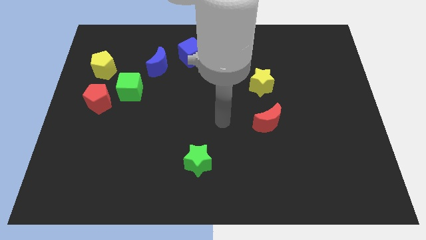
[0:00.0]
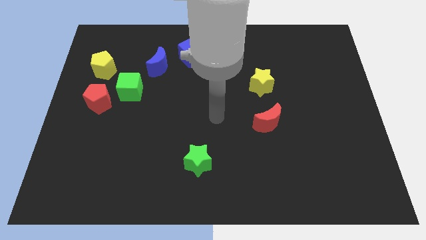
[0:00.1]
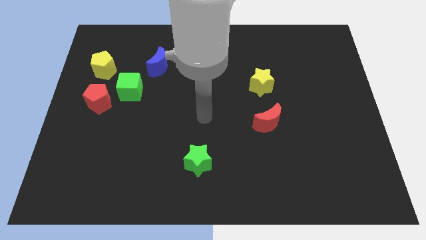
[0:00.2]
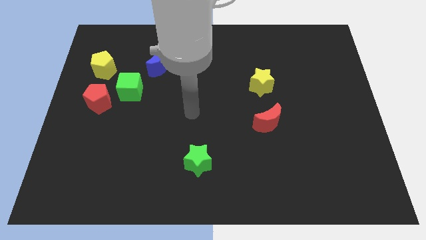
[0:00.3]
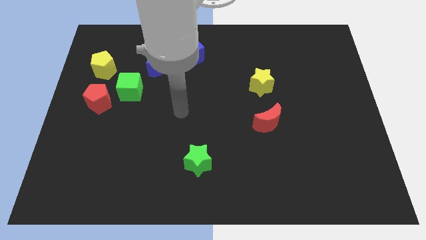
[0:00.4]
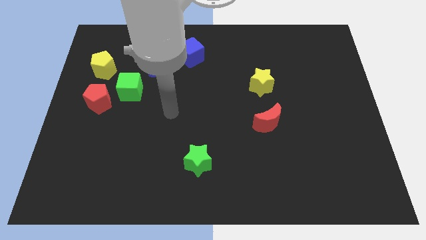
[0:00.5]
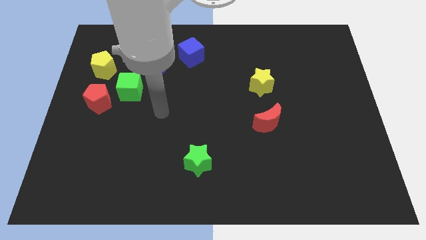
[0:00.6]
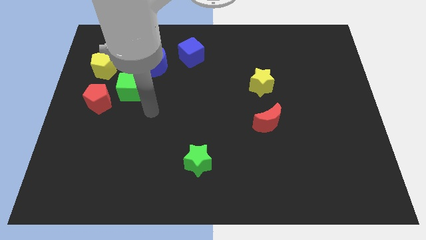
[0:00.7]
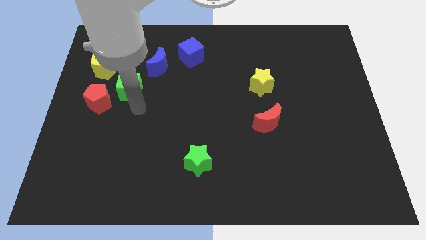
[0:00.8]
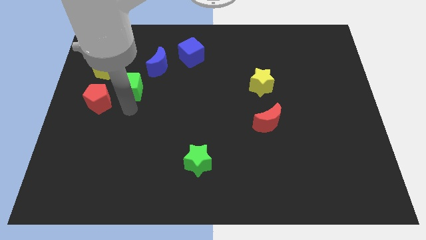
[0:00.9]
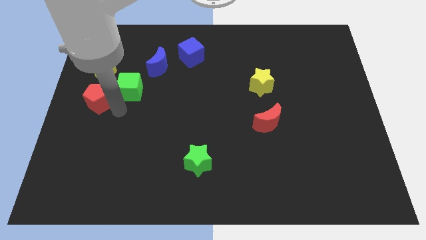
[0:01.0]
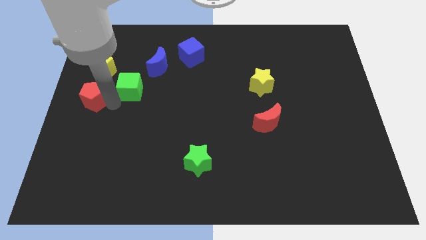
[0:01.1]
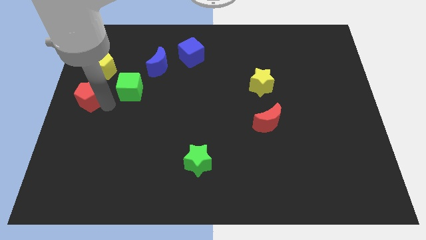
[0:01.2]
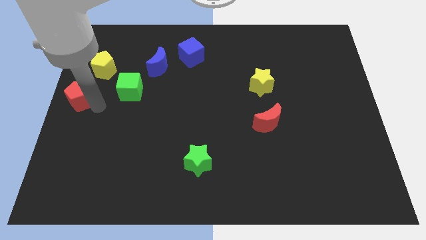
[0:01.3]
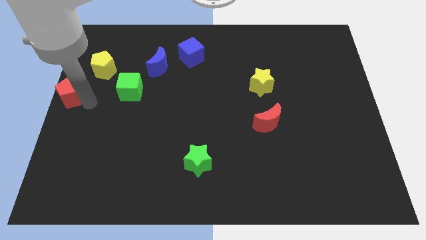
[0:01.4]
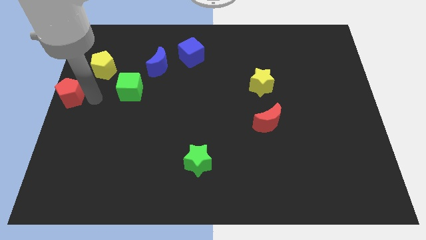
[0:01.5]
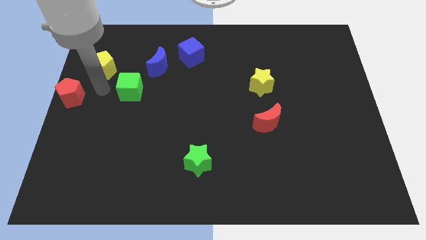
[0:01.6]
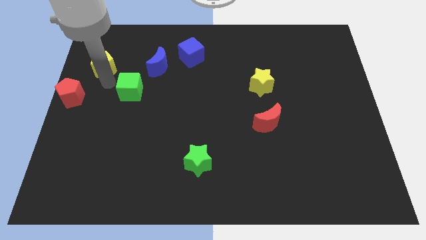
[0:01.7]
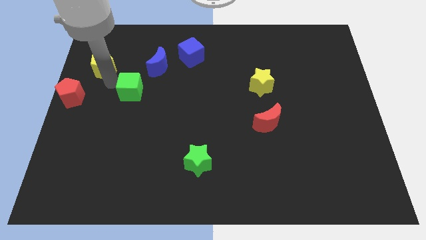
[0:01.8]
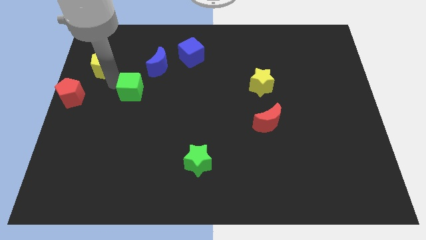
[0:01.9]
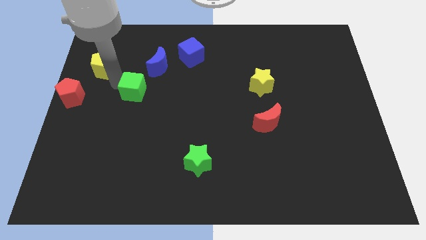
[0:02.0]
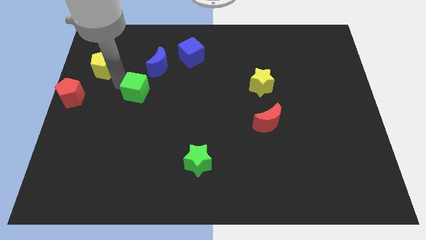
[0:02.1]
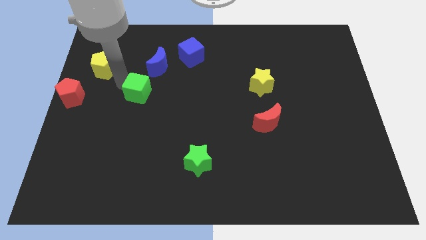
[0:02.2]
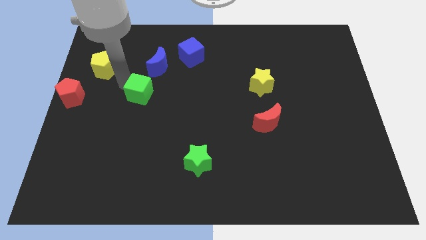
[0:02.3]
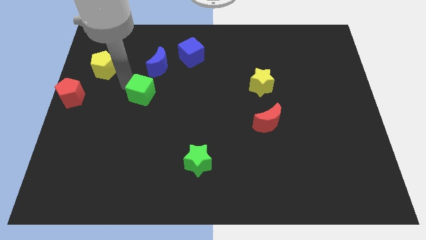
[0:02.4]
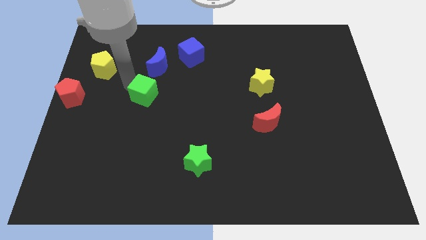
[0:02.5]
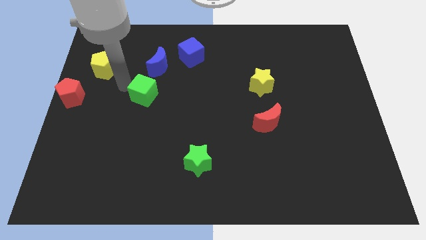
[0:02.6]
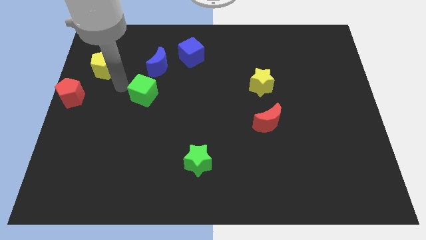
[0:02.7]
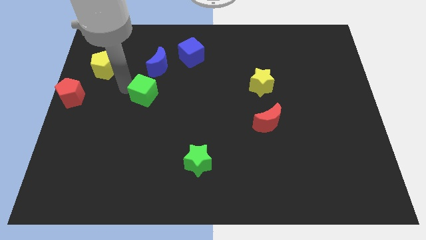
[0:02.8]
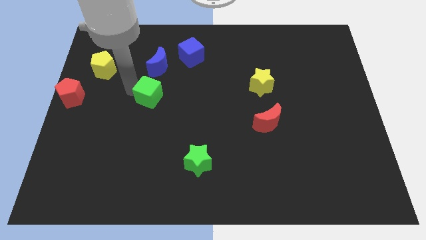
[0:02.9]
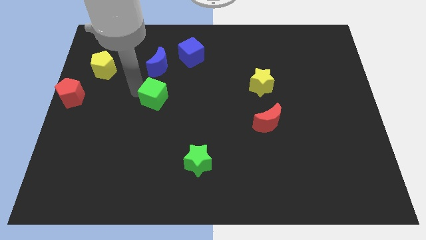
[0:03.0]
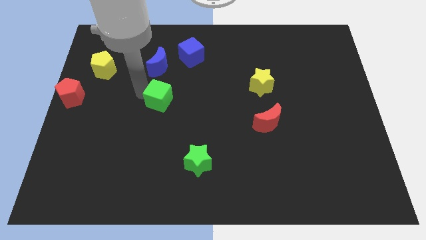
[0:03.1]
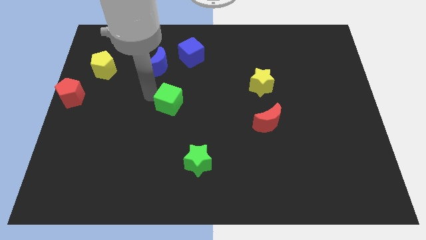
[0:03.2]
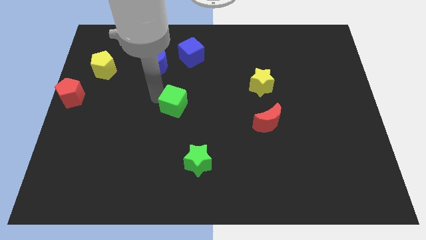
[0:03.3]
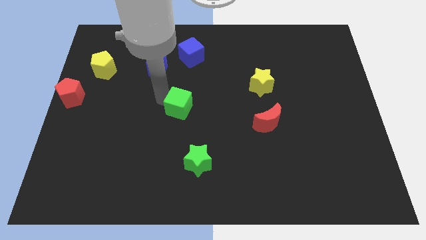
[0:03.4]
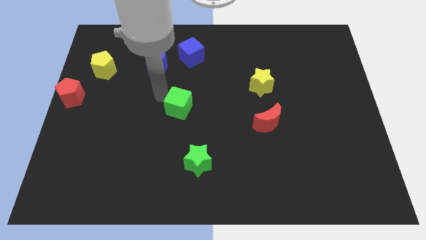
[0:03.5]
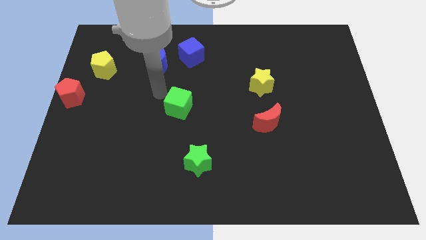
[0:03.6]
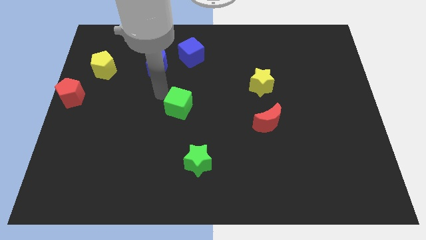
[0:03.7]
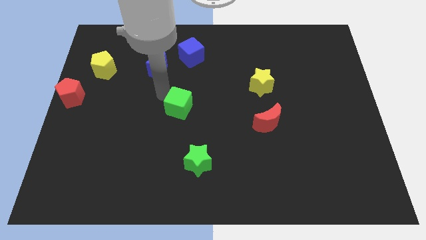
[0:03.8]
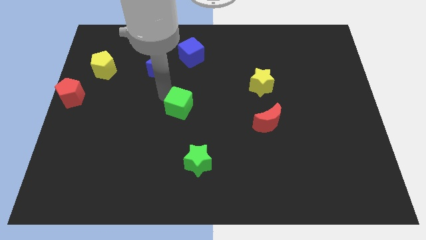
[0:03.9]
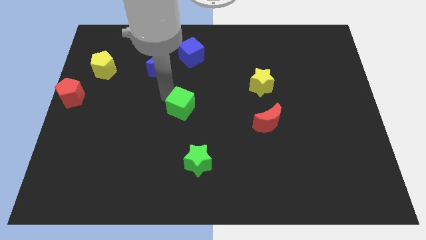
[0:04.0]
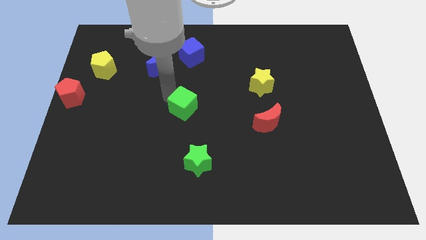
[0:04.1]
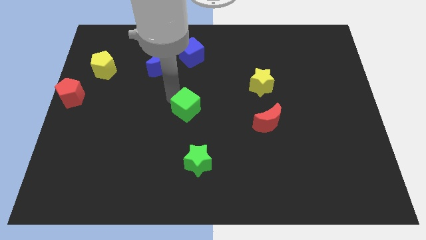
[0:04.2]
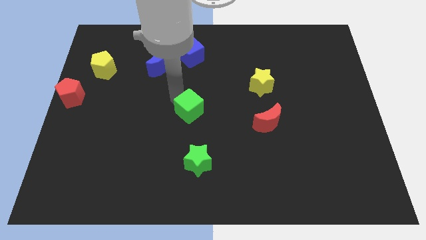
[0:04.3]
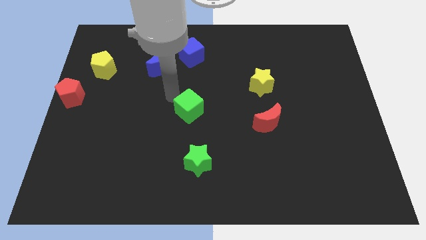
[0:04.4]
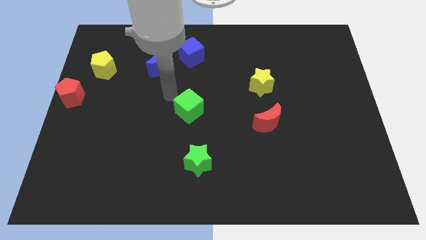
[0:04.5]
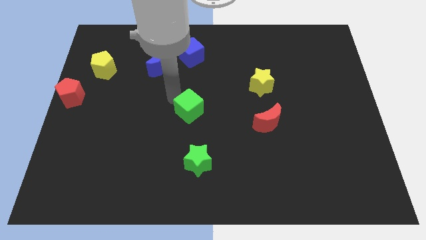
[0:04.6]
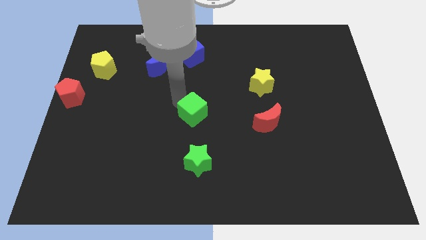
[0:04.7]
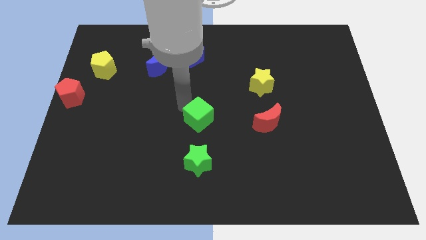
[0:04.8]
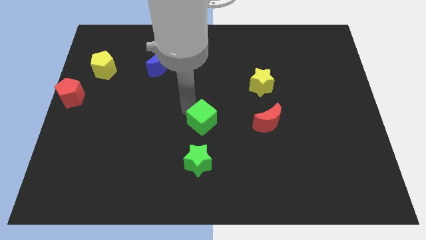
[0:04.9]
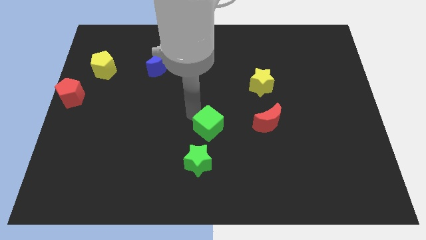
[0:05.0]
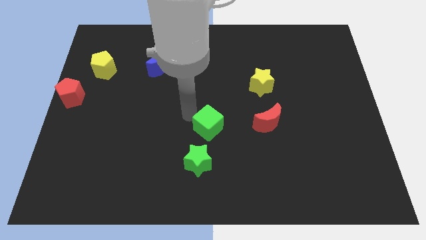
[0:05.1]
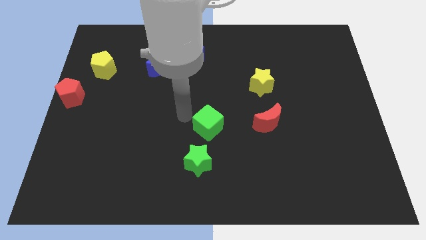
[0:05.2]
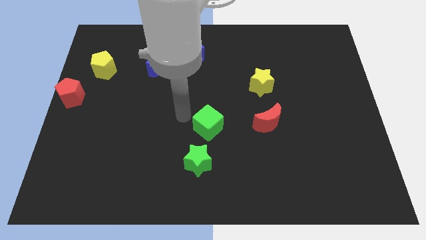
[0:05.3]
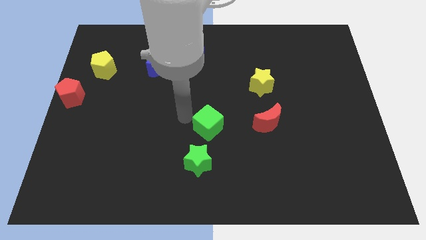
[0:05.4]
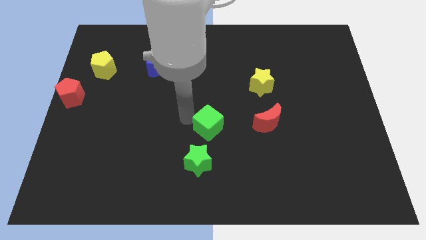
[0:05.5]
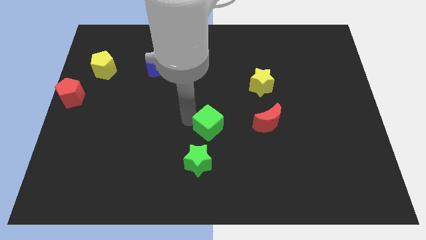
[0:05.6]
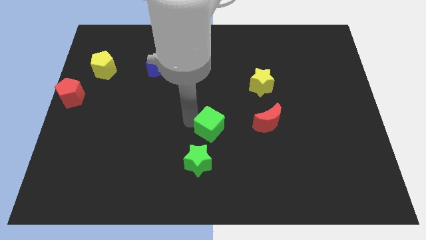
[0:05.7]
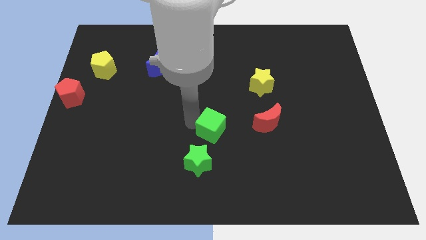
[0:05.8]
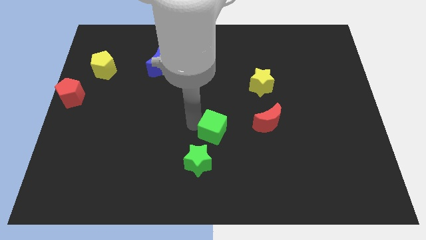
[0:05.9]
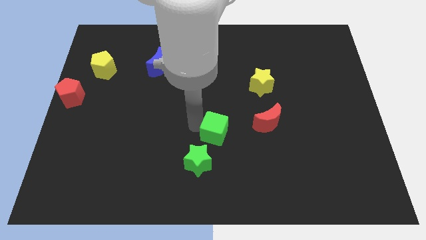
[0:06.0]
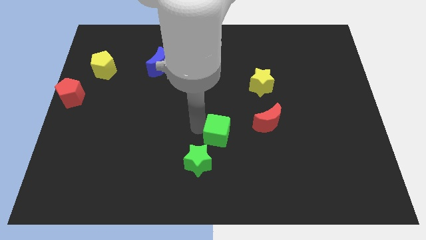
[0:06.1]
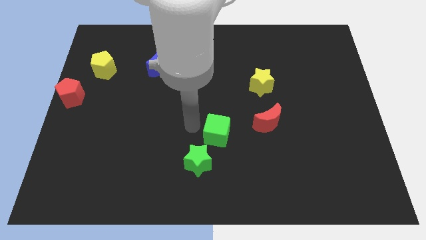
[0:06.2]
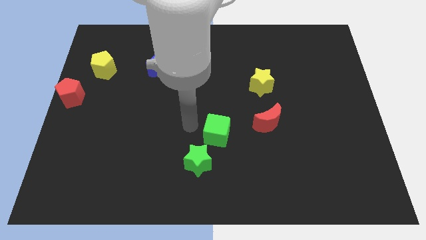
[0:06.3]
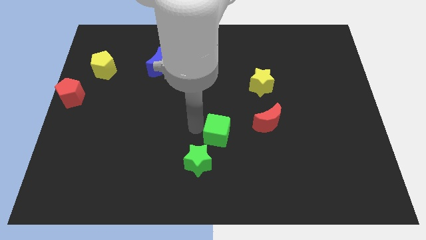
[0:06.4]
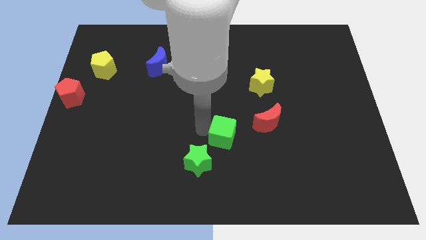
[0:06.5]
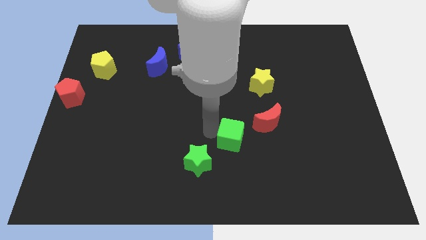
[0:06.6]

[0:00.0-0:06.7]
push the green cube to the bottom left side of the red moon

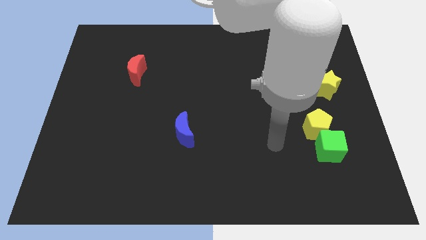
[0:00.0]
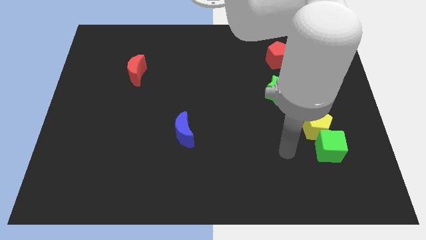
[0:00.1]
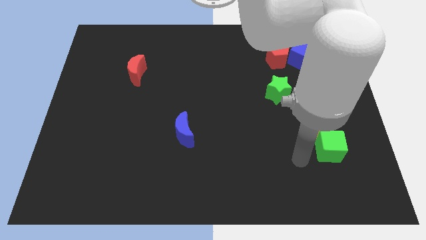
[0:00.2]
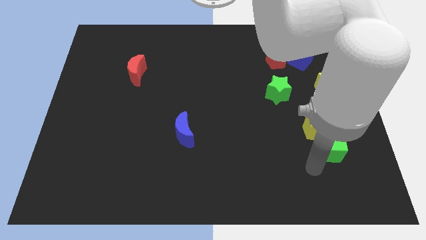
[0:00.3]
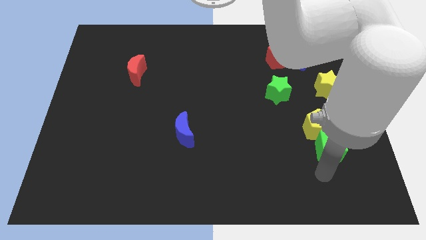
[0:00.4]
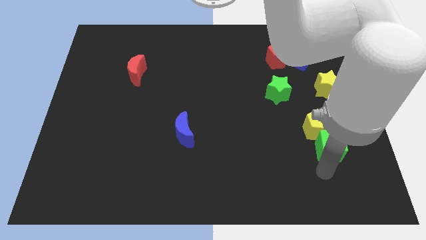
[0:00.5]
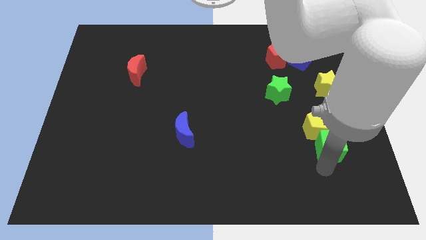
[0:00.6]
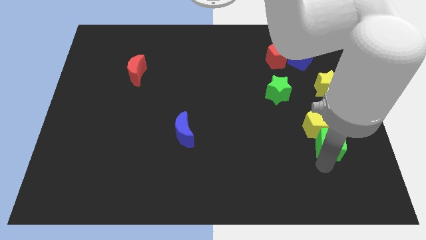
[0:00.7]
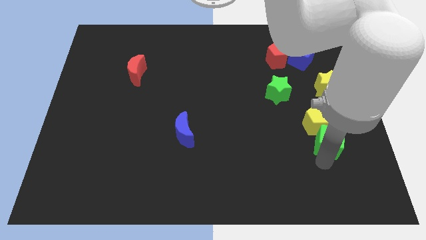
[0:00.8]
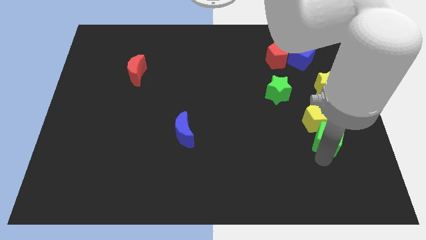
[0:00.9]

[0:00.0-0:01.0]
move the green cube below the yellow star
